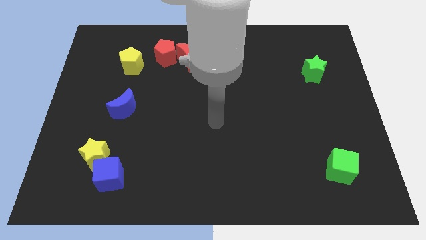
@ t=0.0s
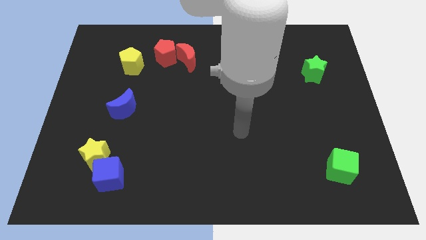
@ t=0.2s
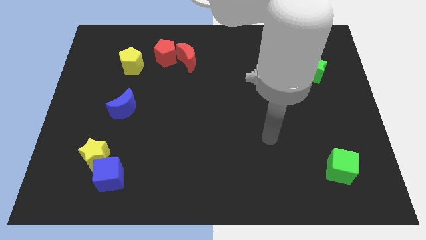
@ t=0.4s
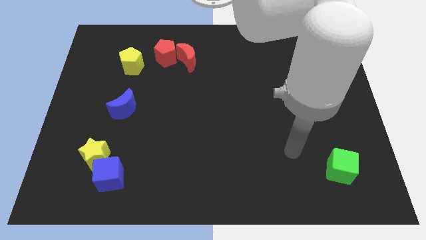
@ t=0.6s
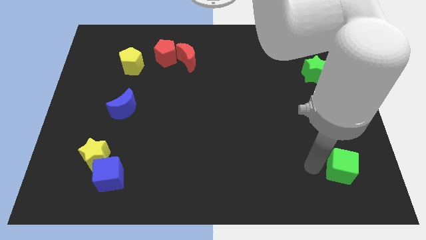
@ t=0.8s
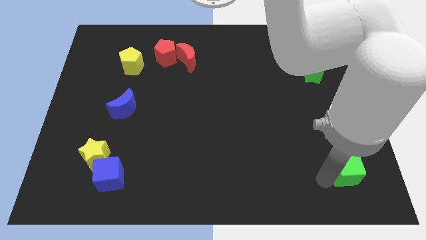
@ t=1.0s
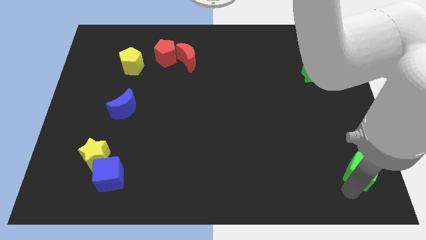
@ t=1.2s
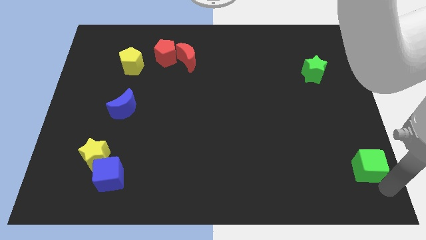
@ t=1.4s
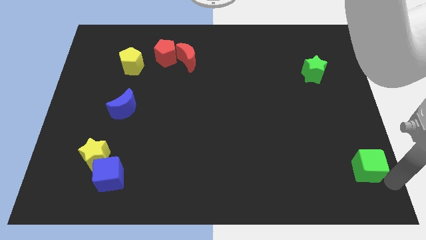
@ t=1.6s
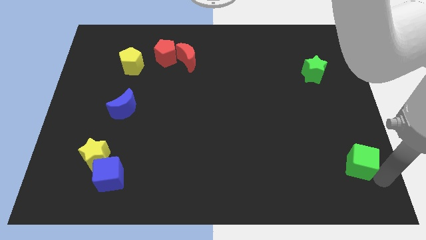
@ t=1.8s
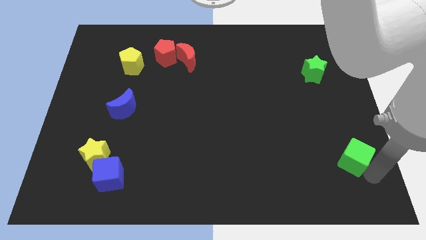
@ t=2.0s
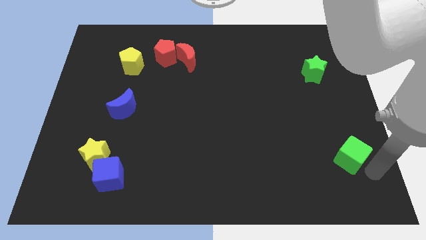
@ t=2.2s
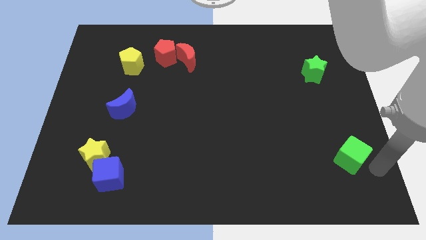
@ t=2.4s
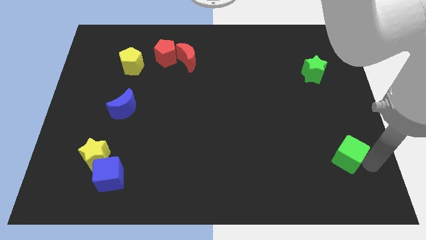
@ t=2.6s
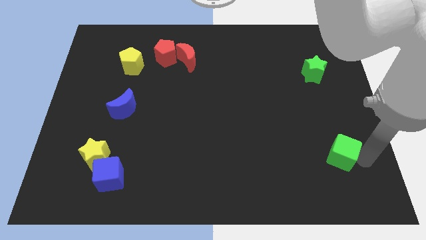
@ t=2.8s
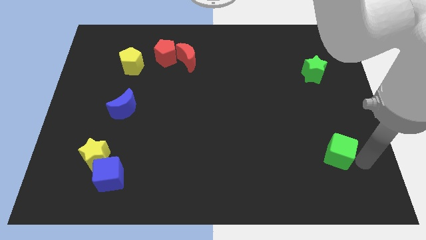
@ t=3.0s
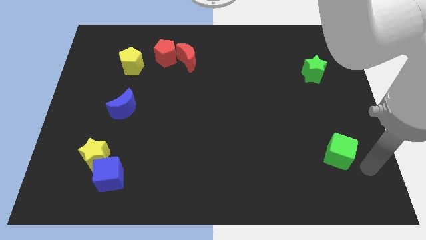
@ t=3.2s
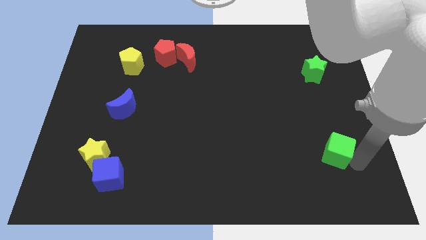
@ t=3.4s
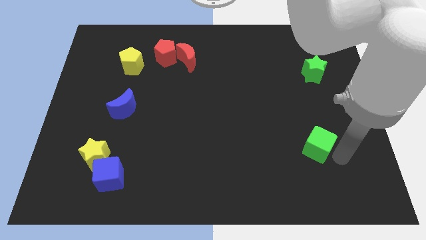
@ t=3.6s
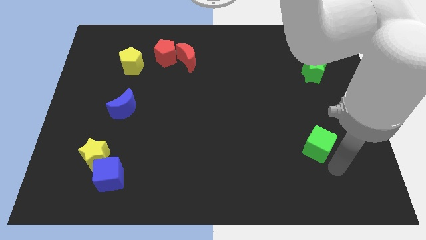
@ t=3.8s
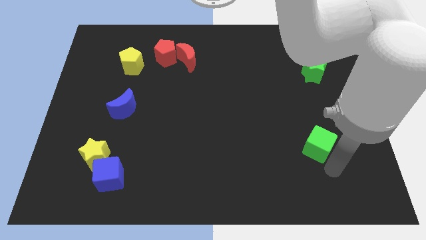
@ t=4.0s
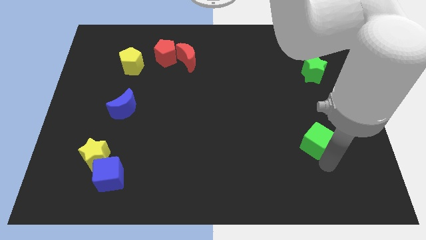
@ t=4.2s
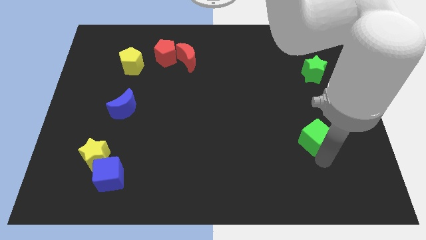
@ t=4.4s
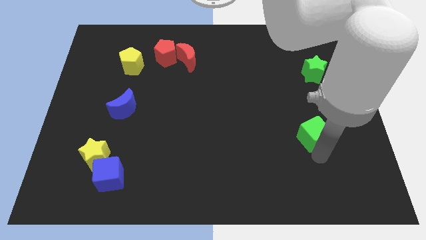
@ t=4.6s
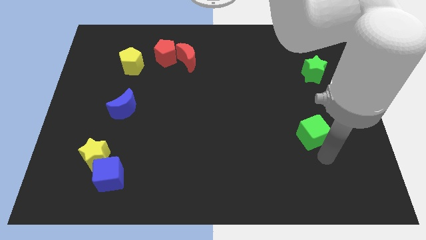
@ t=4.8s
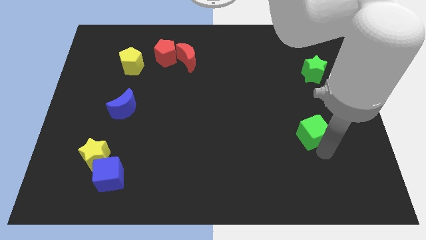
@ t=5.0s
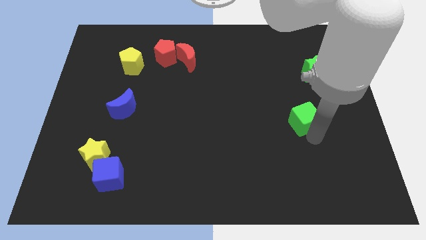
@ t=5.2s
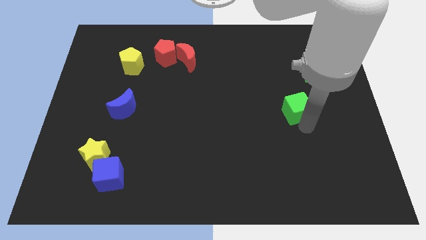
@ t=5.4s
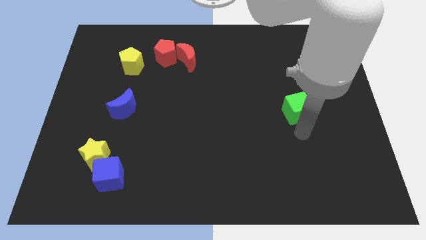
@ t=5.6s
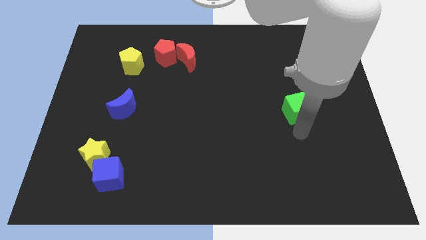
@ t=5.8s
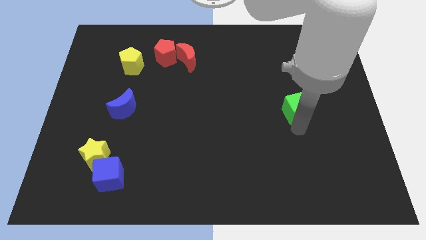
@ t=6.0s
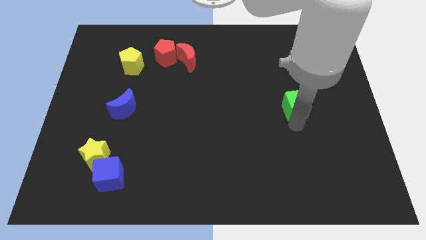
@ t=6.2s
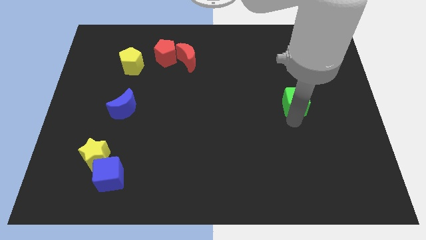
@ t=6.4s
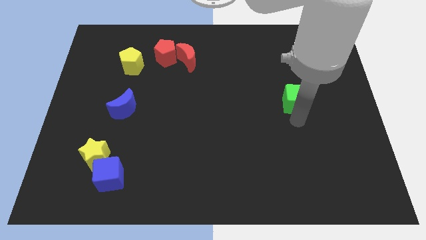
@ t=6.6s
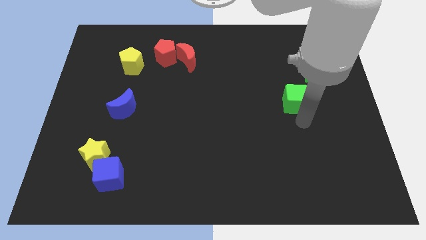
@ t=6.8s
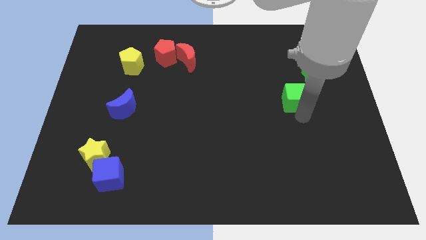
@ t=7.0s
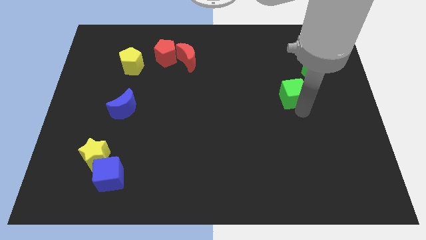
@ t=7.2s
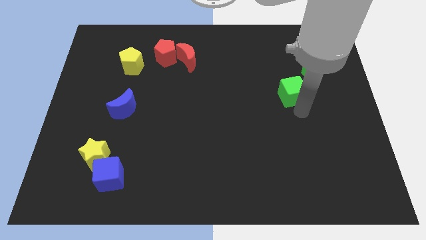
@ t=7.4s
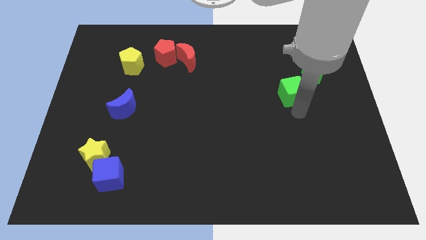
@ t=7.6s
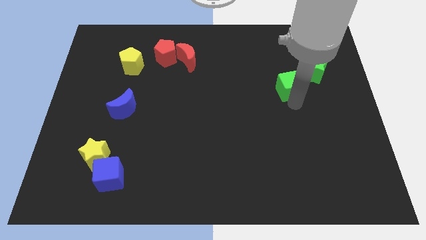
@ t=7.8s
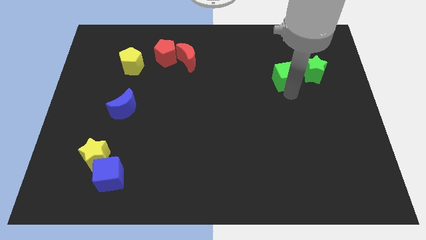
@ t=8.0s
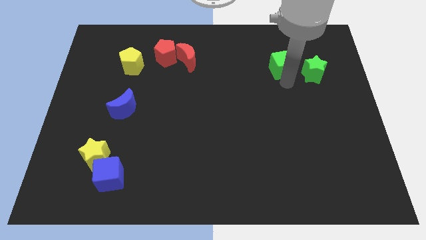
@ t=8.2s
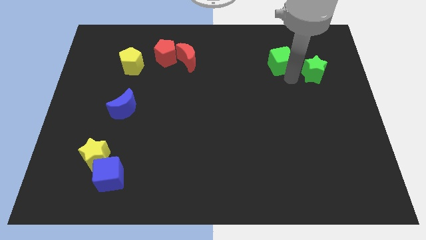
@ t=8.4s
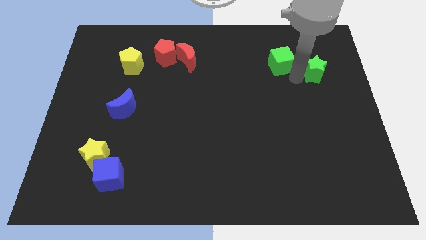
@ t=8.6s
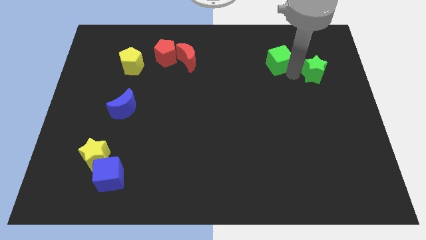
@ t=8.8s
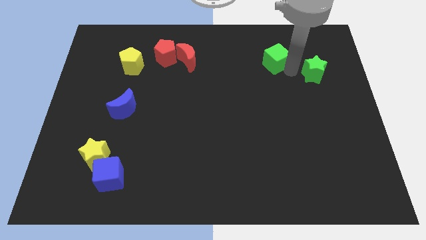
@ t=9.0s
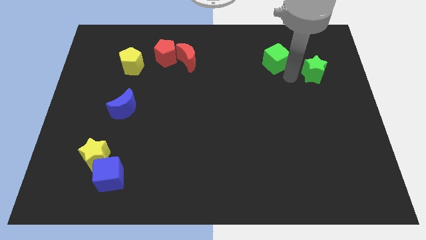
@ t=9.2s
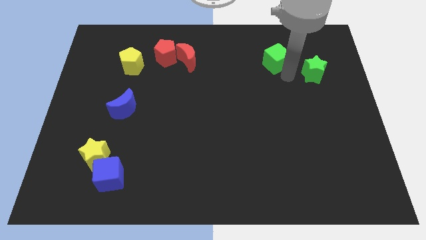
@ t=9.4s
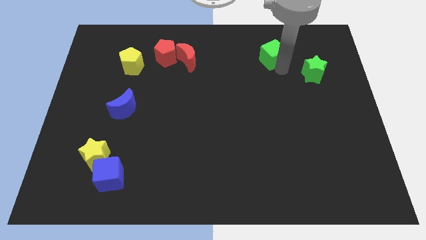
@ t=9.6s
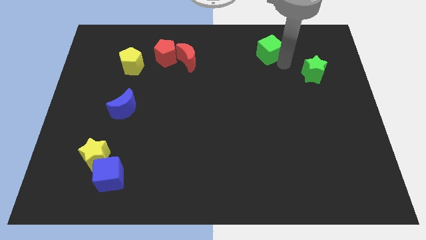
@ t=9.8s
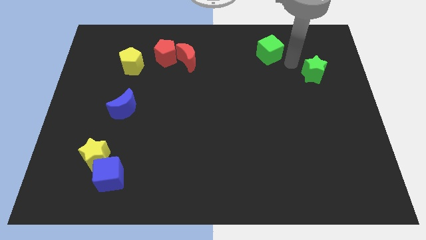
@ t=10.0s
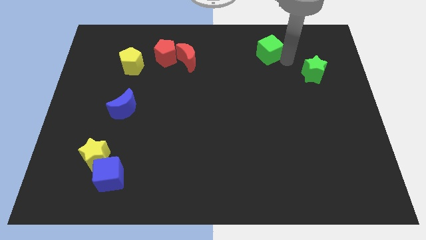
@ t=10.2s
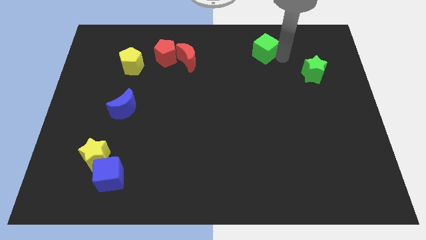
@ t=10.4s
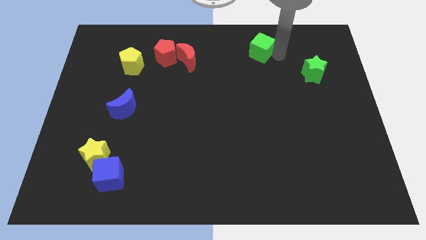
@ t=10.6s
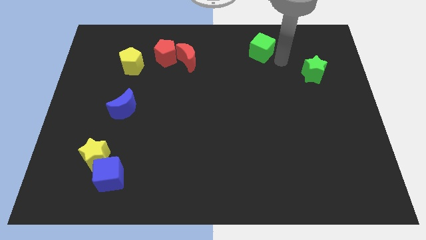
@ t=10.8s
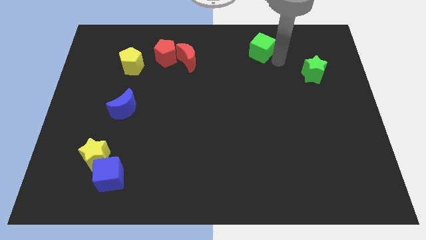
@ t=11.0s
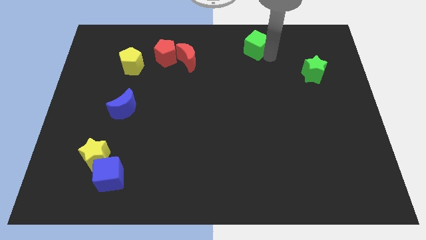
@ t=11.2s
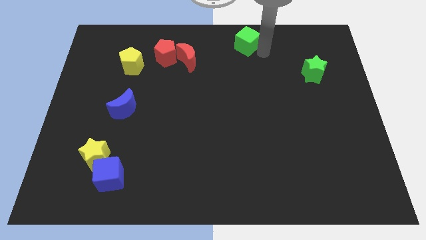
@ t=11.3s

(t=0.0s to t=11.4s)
slide the green cube to the top side

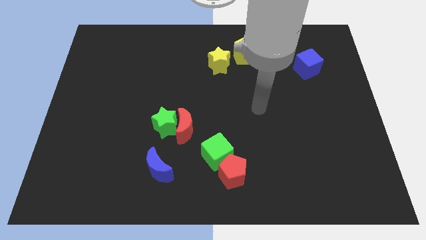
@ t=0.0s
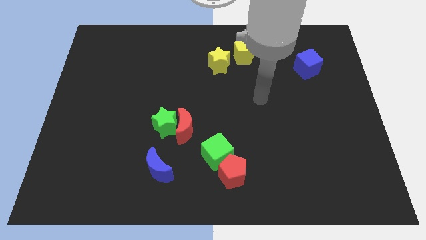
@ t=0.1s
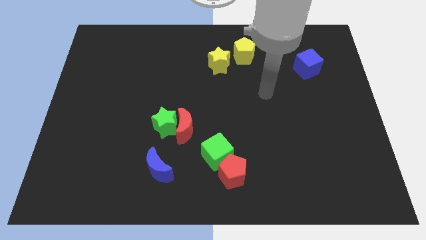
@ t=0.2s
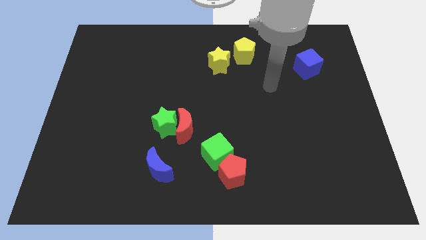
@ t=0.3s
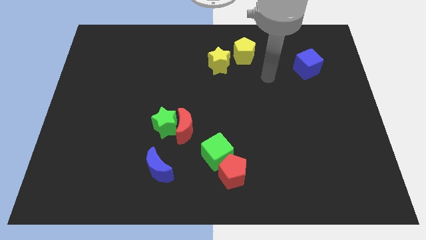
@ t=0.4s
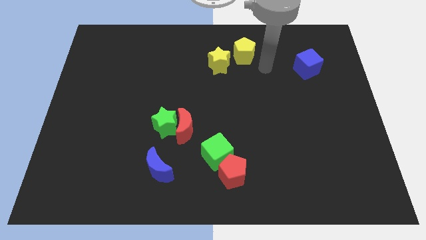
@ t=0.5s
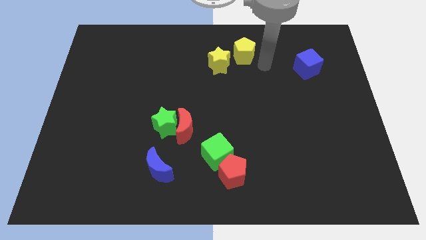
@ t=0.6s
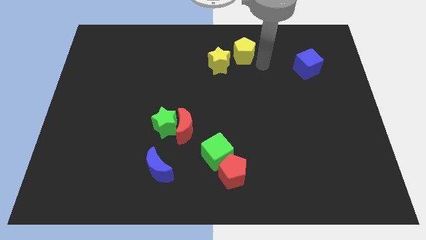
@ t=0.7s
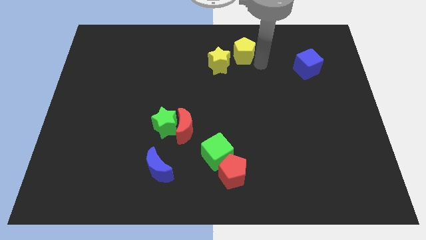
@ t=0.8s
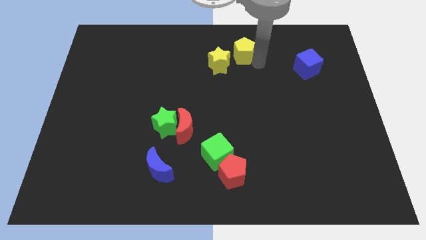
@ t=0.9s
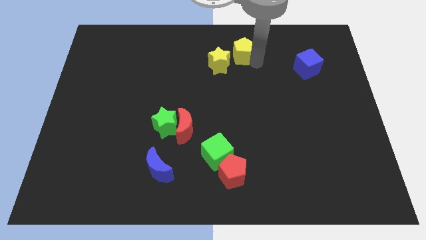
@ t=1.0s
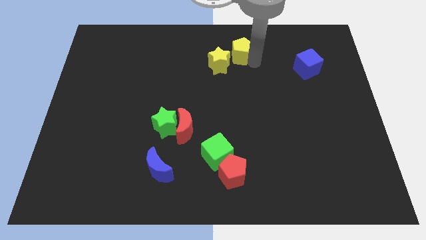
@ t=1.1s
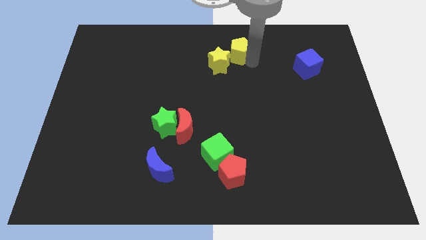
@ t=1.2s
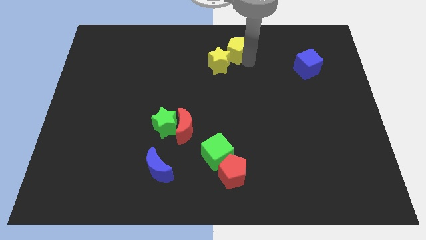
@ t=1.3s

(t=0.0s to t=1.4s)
slide the yellow pentagon to the top side
